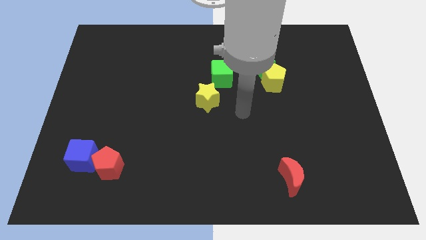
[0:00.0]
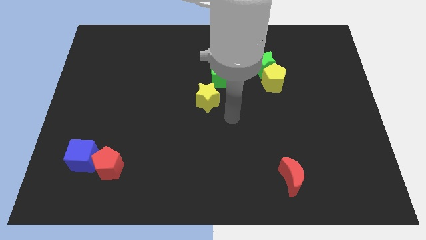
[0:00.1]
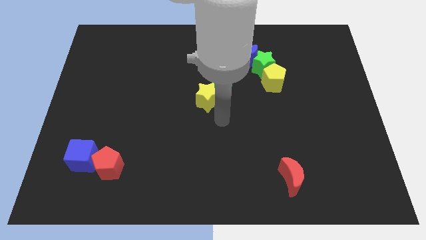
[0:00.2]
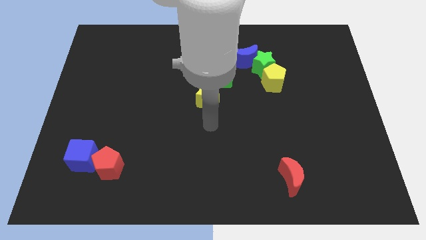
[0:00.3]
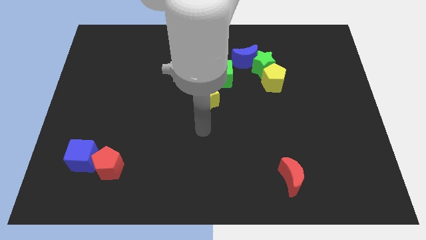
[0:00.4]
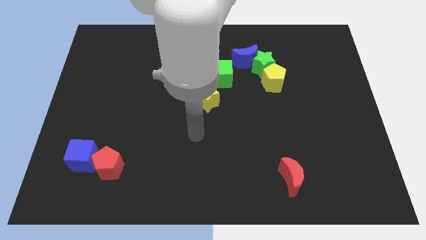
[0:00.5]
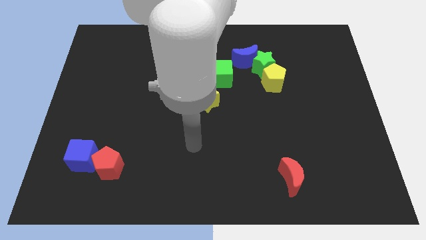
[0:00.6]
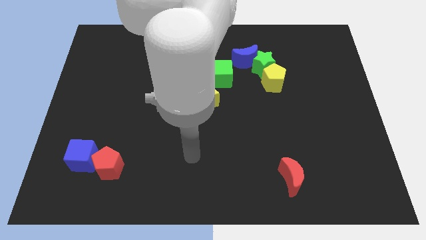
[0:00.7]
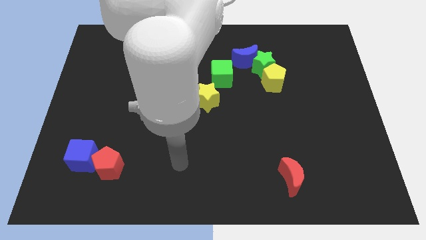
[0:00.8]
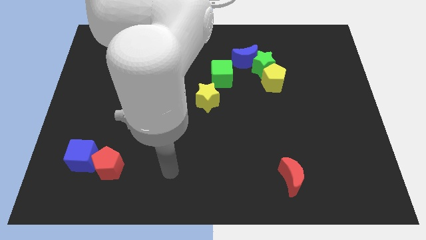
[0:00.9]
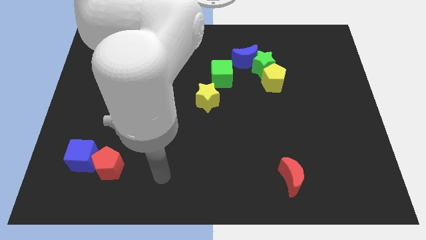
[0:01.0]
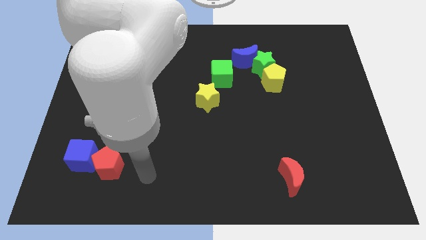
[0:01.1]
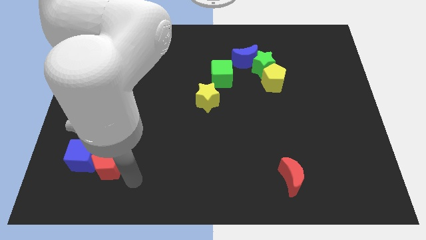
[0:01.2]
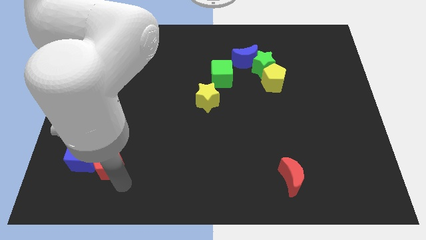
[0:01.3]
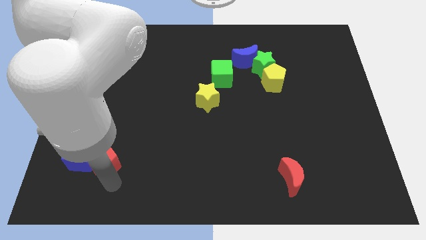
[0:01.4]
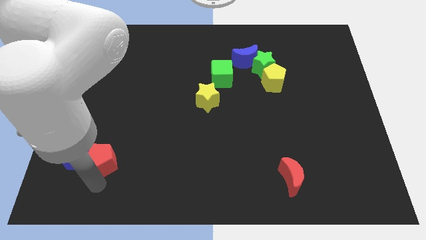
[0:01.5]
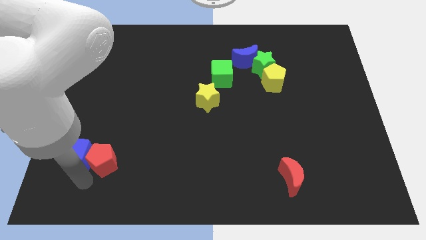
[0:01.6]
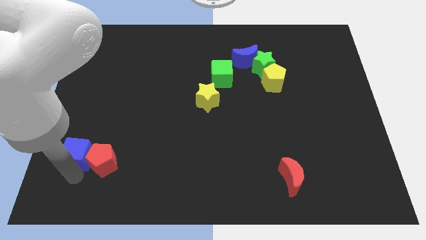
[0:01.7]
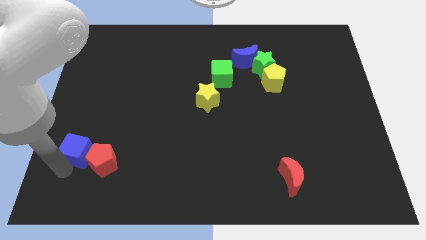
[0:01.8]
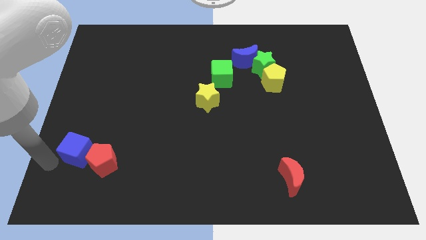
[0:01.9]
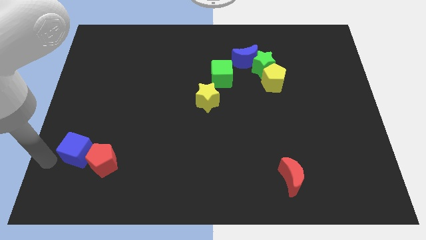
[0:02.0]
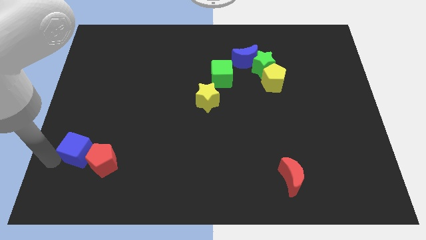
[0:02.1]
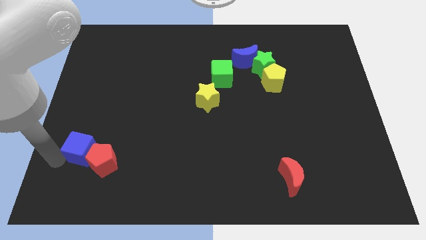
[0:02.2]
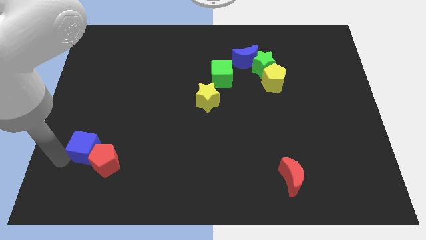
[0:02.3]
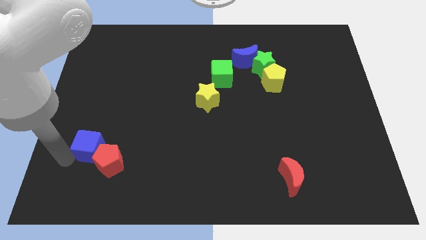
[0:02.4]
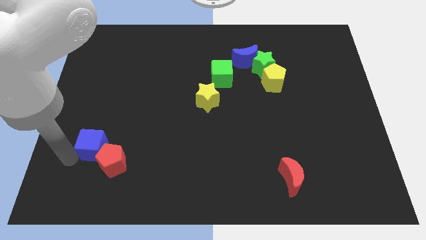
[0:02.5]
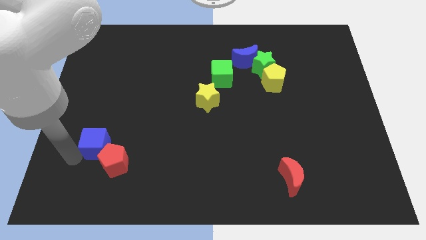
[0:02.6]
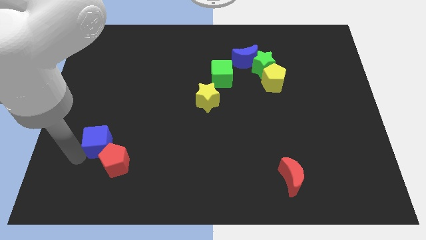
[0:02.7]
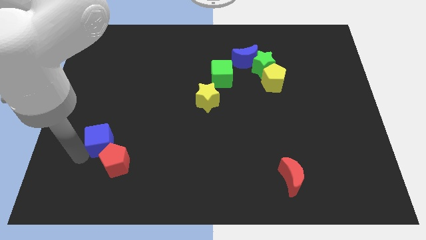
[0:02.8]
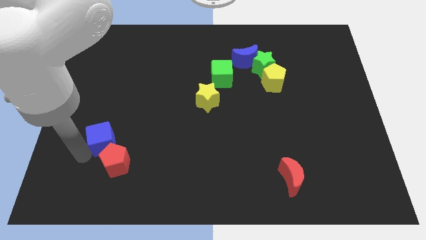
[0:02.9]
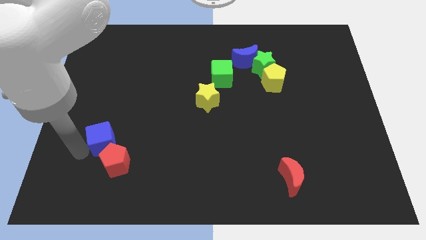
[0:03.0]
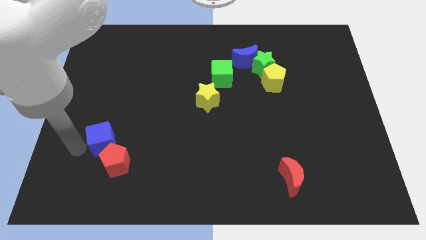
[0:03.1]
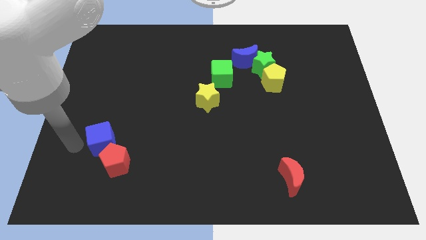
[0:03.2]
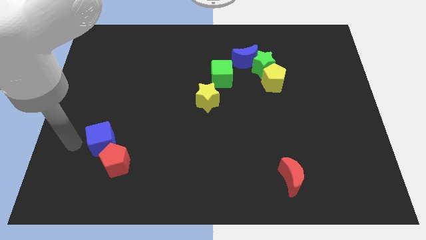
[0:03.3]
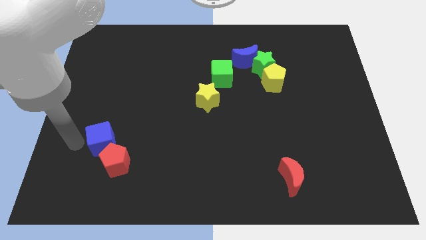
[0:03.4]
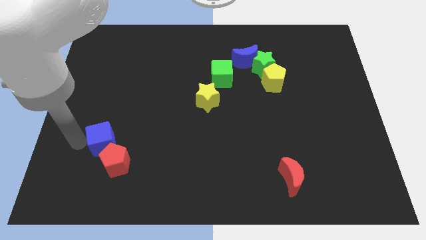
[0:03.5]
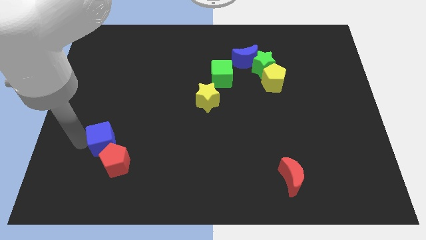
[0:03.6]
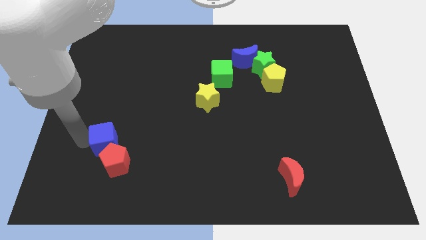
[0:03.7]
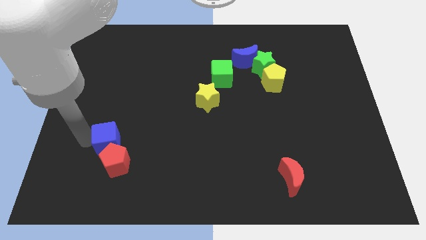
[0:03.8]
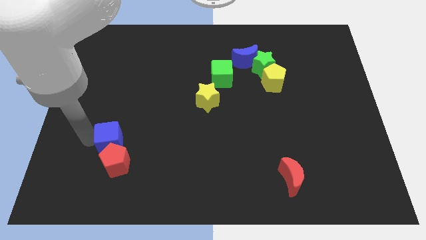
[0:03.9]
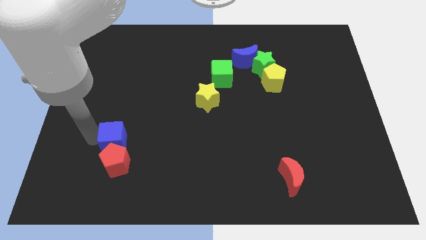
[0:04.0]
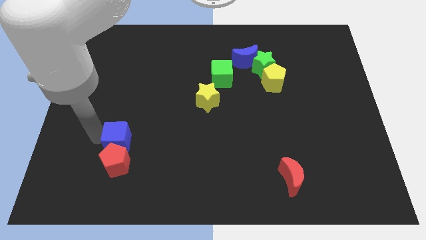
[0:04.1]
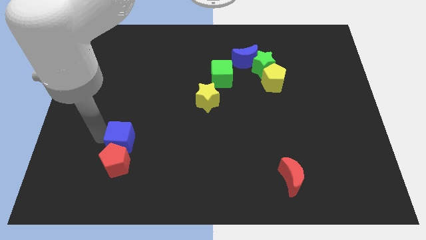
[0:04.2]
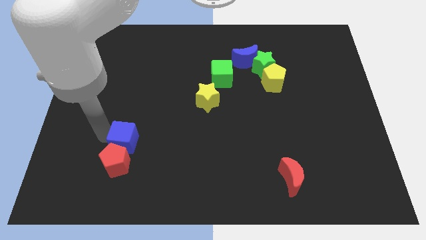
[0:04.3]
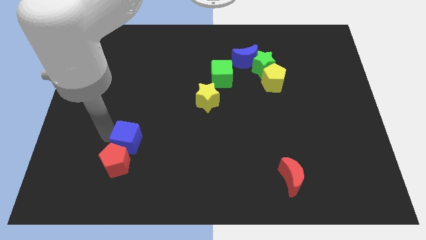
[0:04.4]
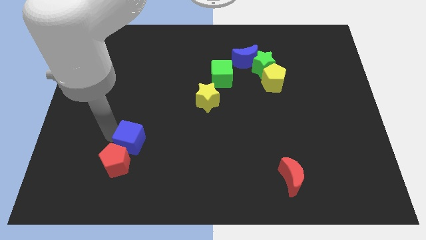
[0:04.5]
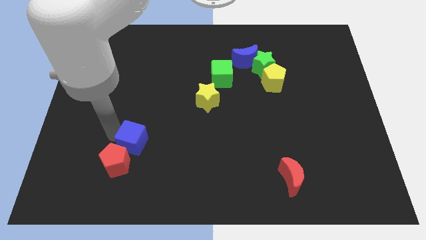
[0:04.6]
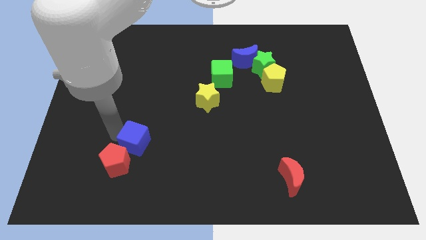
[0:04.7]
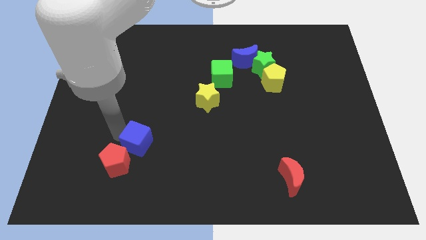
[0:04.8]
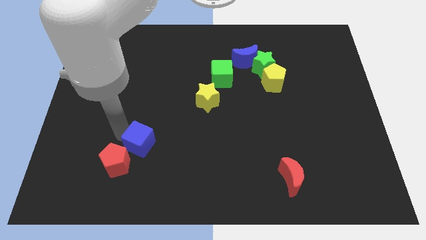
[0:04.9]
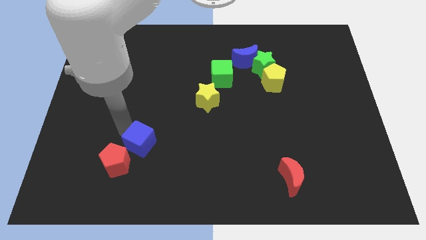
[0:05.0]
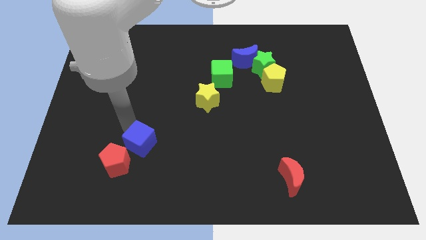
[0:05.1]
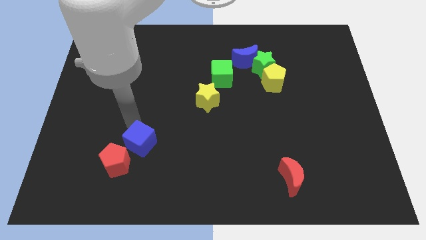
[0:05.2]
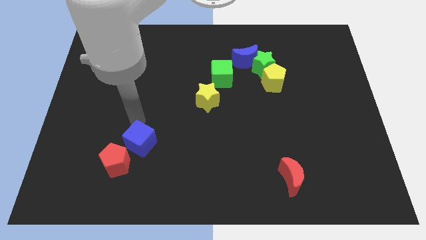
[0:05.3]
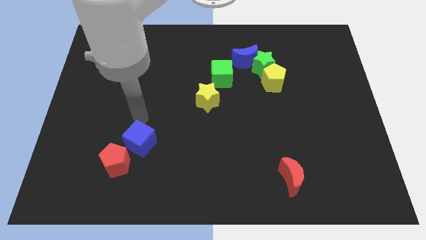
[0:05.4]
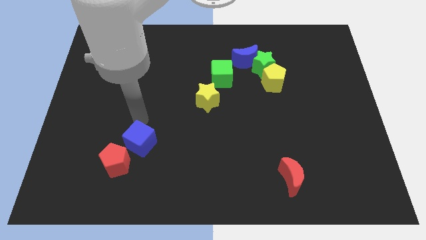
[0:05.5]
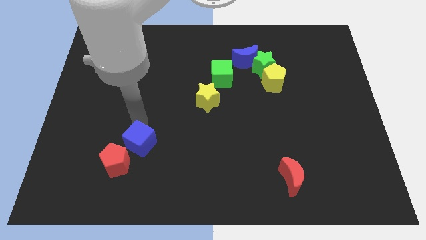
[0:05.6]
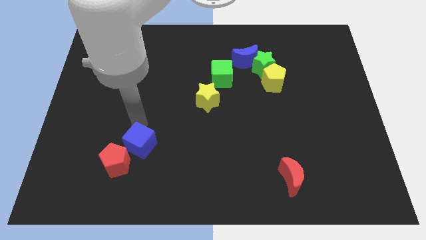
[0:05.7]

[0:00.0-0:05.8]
move the blue cube just right of the red pentagon

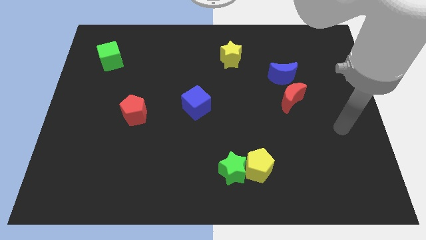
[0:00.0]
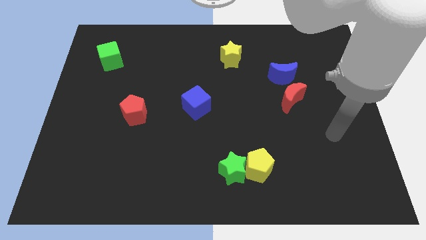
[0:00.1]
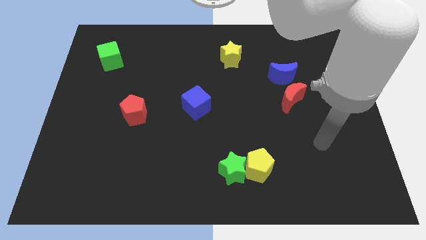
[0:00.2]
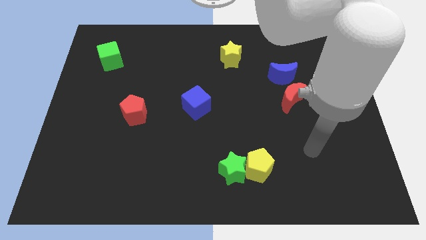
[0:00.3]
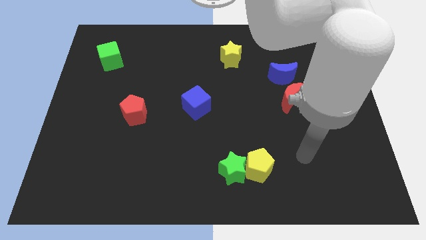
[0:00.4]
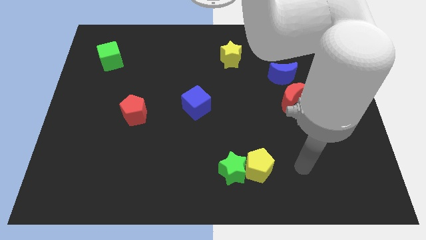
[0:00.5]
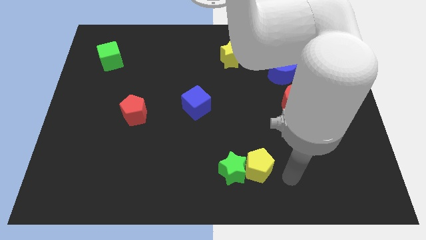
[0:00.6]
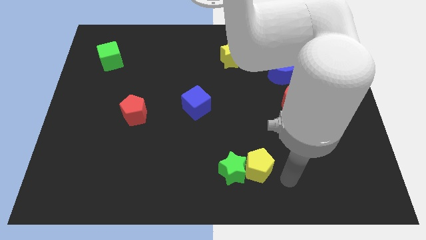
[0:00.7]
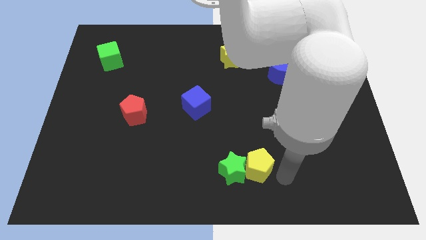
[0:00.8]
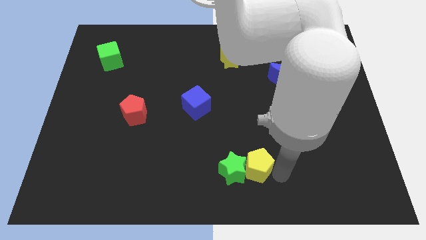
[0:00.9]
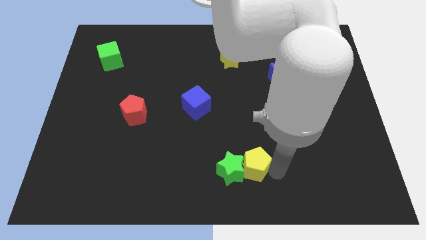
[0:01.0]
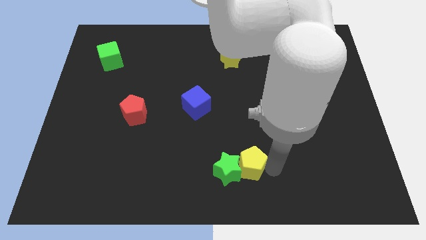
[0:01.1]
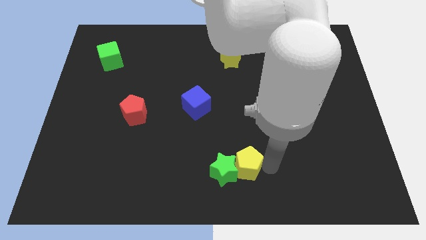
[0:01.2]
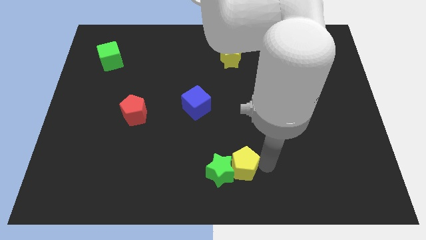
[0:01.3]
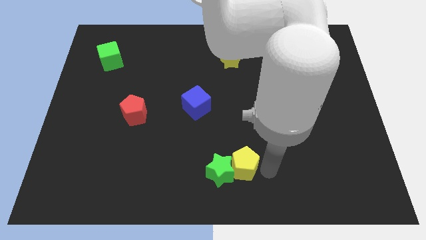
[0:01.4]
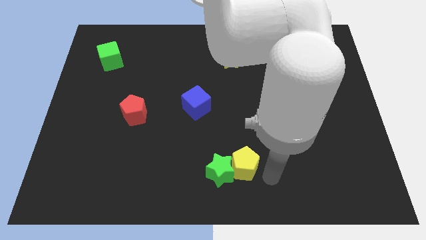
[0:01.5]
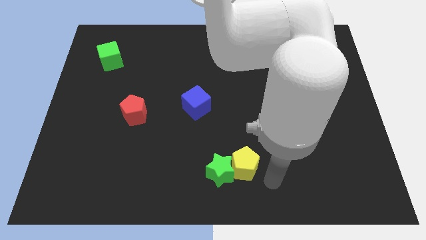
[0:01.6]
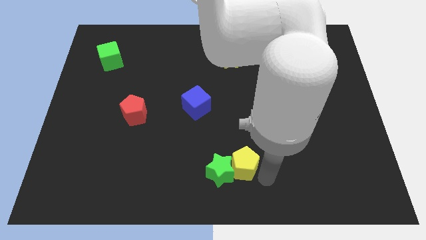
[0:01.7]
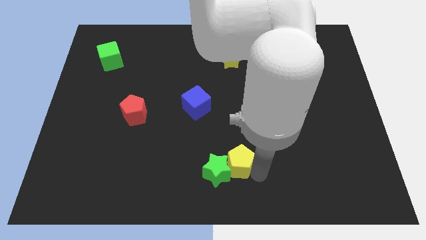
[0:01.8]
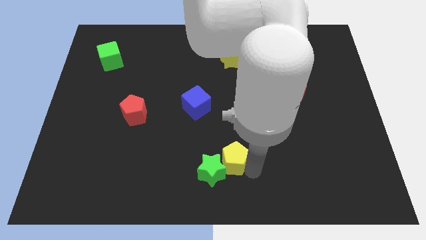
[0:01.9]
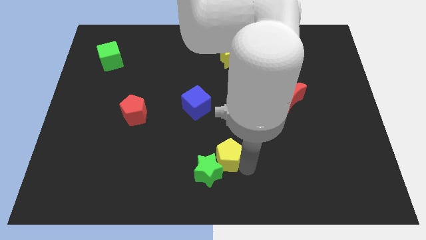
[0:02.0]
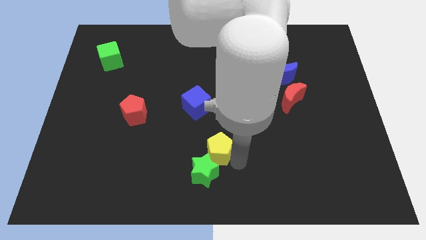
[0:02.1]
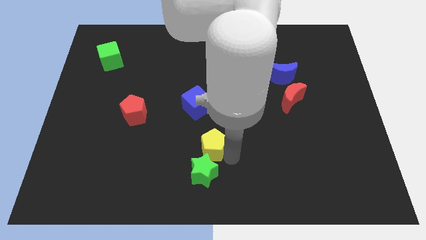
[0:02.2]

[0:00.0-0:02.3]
push the yellow pentagon to the bottom side of the blue cube
